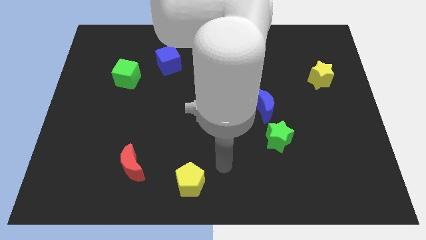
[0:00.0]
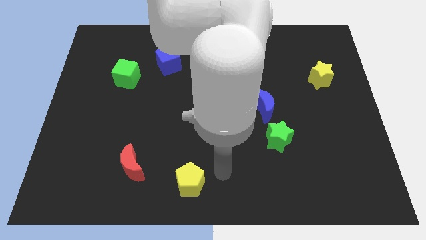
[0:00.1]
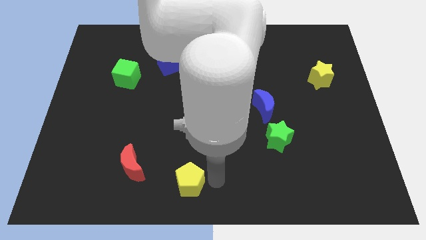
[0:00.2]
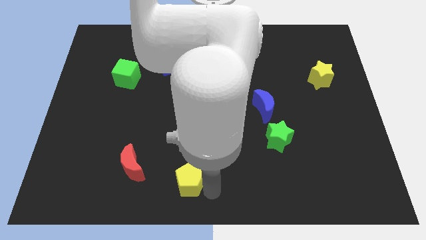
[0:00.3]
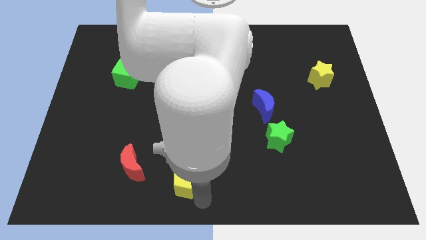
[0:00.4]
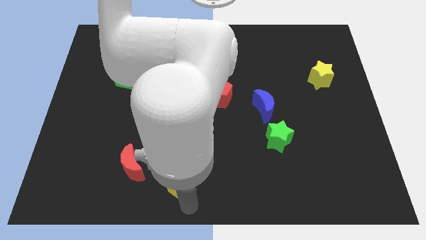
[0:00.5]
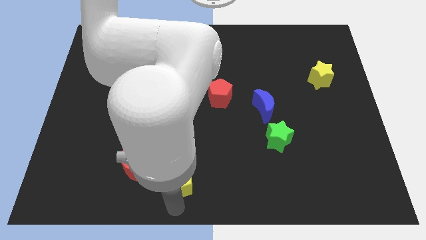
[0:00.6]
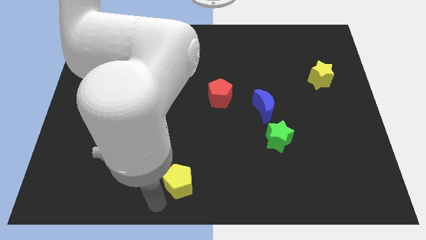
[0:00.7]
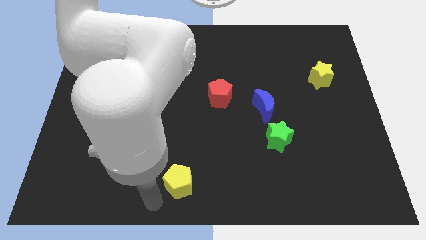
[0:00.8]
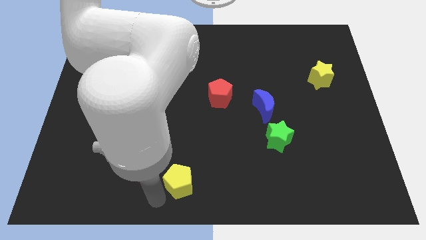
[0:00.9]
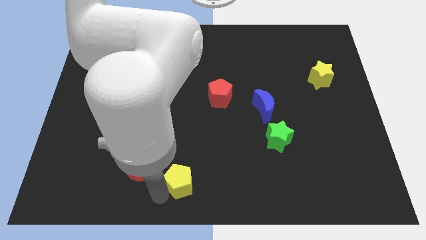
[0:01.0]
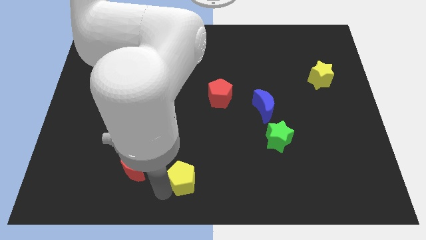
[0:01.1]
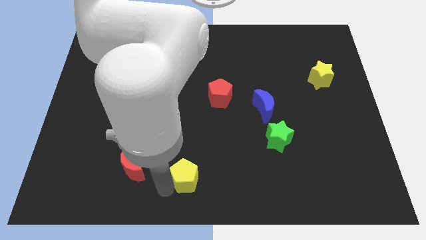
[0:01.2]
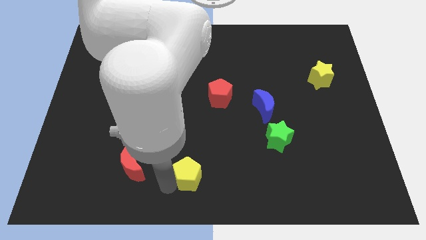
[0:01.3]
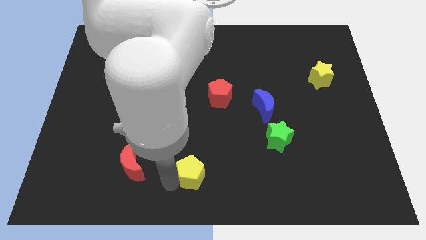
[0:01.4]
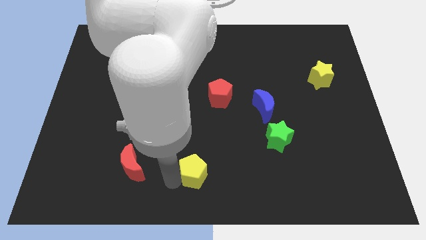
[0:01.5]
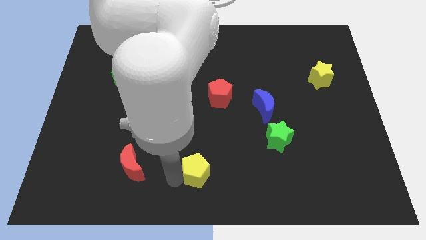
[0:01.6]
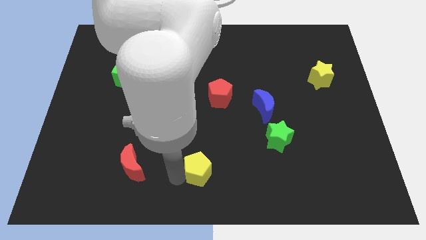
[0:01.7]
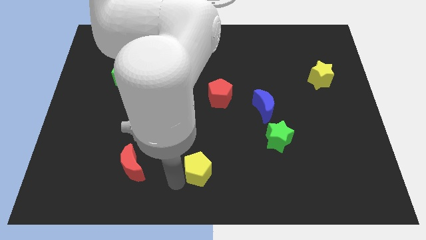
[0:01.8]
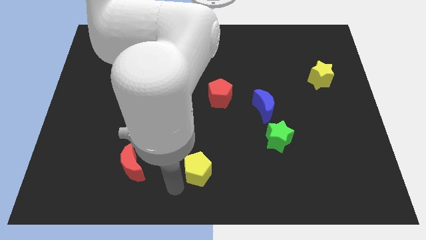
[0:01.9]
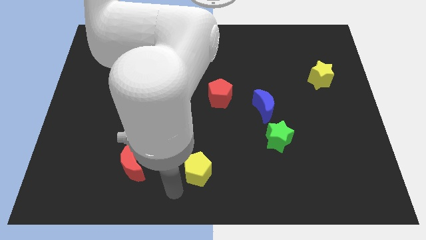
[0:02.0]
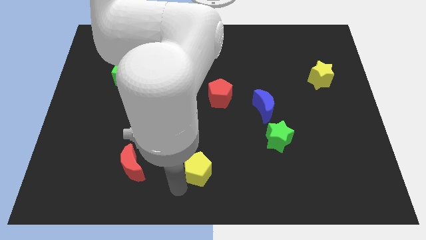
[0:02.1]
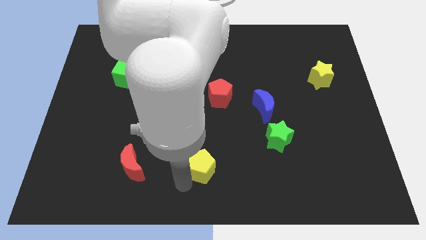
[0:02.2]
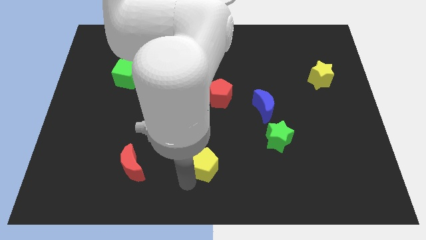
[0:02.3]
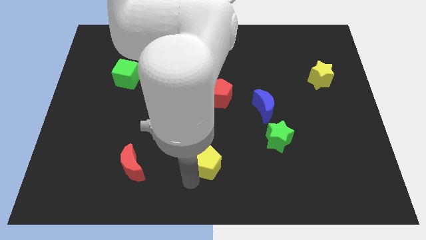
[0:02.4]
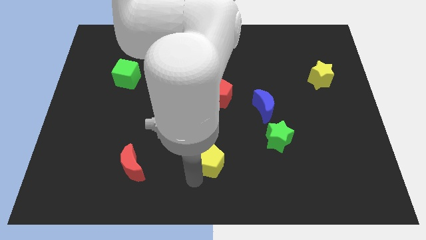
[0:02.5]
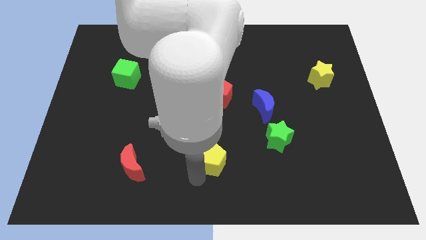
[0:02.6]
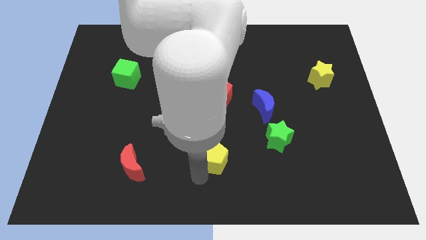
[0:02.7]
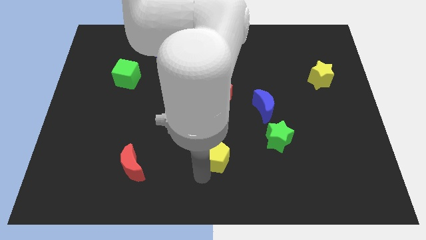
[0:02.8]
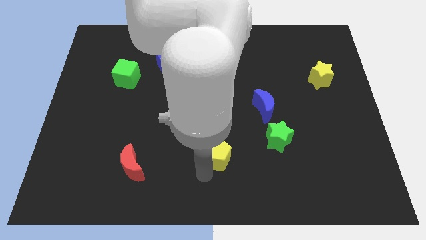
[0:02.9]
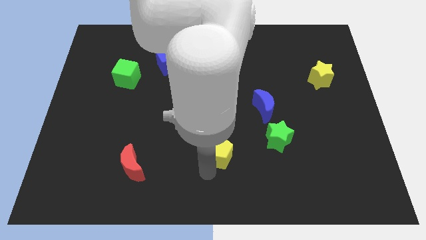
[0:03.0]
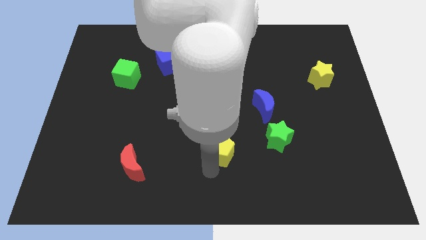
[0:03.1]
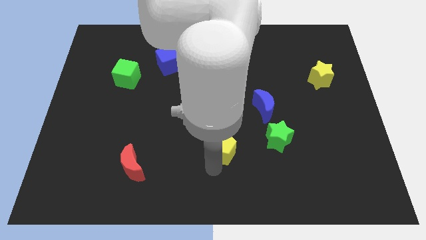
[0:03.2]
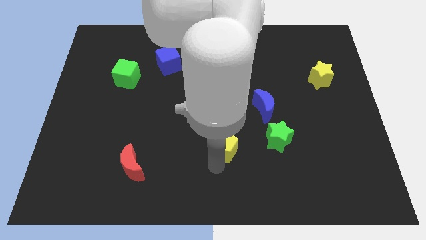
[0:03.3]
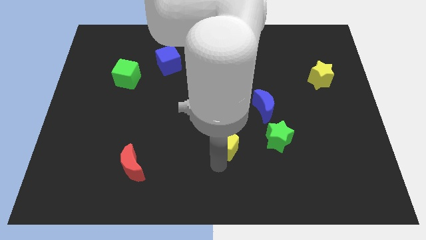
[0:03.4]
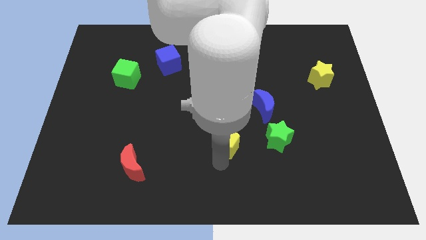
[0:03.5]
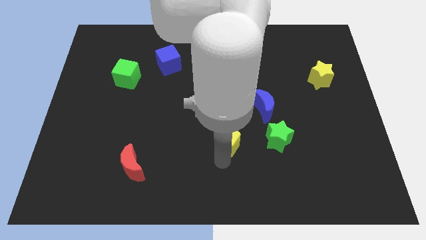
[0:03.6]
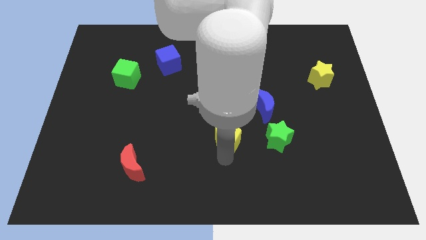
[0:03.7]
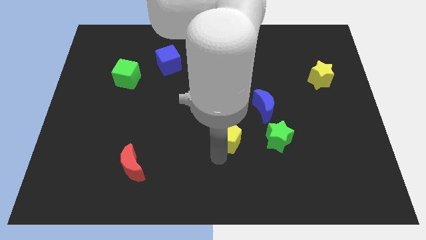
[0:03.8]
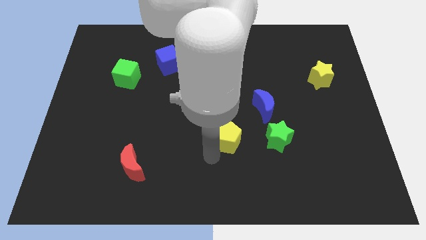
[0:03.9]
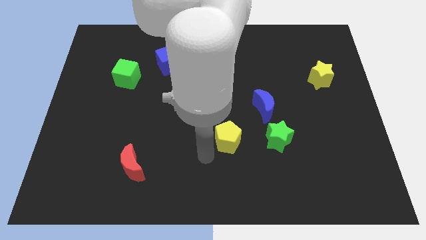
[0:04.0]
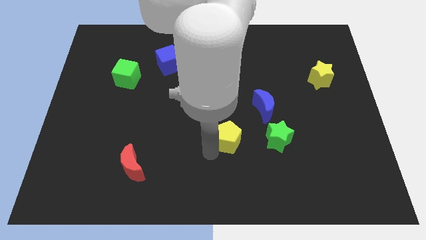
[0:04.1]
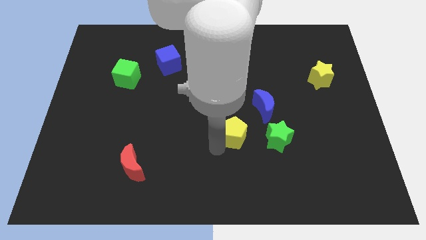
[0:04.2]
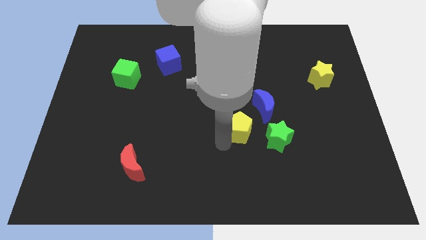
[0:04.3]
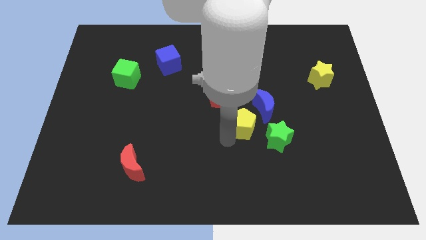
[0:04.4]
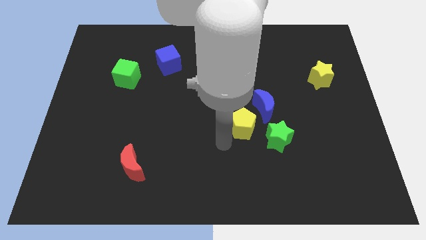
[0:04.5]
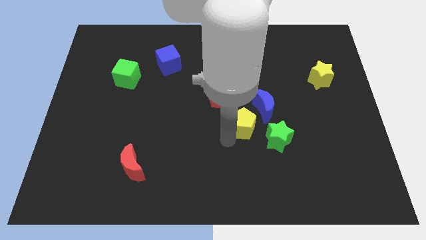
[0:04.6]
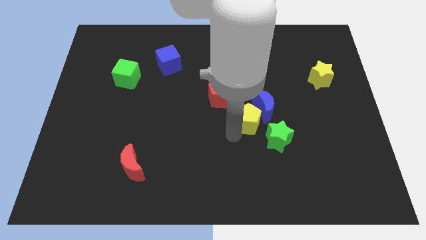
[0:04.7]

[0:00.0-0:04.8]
slide the yellow pentagon to the blue moon

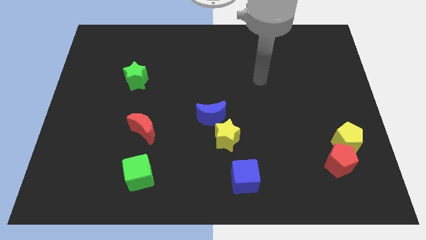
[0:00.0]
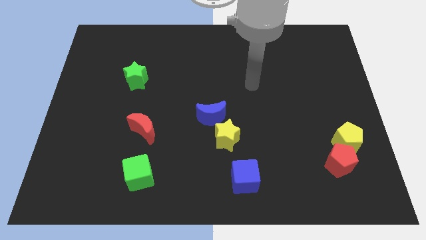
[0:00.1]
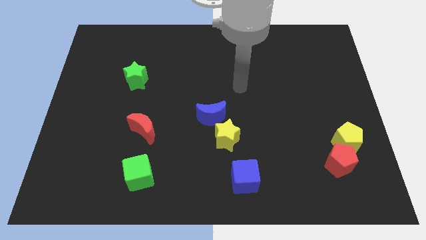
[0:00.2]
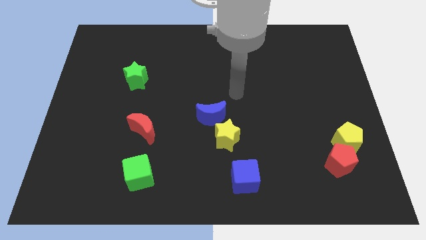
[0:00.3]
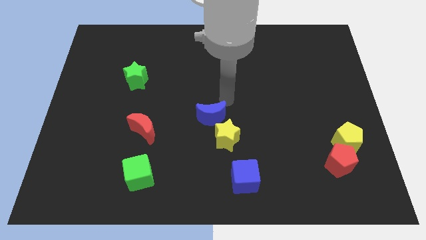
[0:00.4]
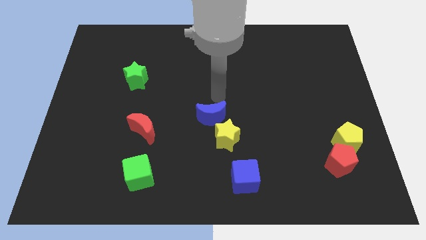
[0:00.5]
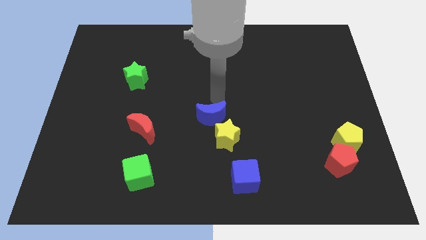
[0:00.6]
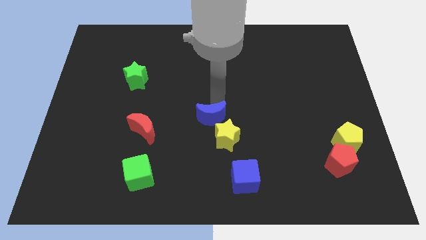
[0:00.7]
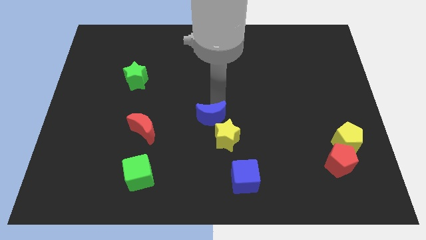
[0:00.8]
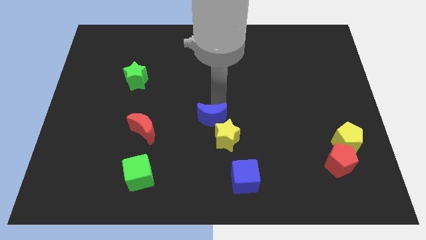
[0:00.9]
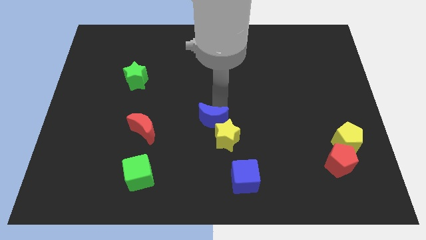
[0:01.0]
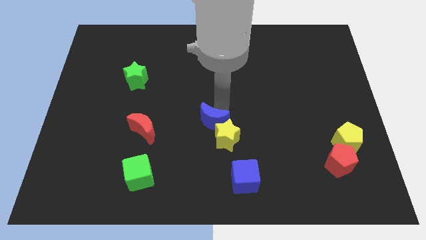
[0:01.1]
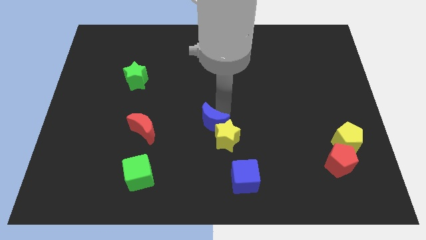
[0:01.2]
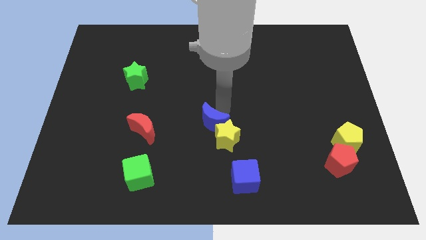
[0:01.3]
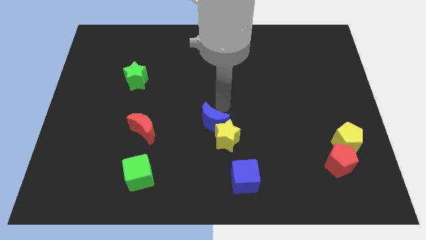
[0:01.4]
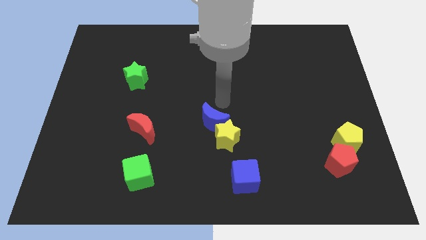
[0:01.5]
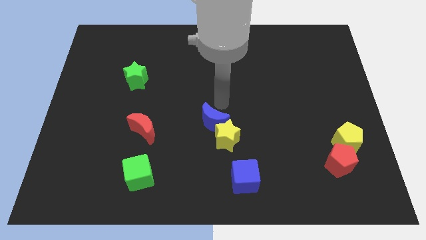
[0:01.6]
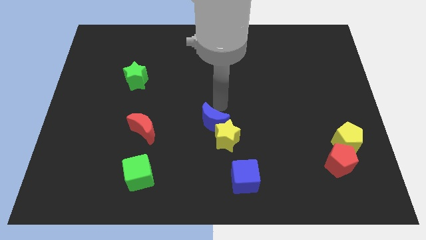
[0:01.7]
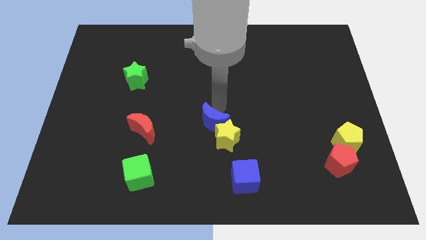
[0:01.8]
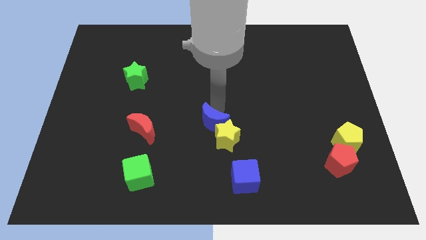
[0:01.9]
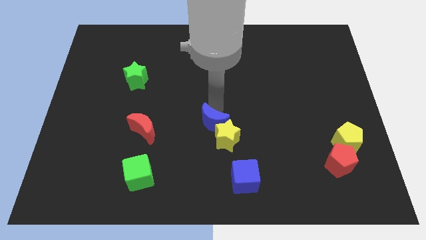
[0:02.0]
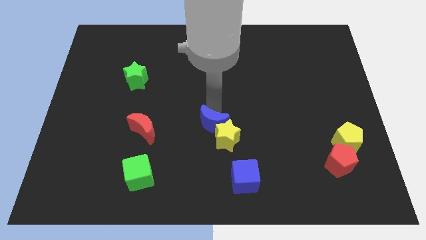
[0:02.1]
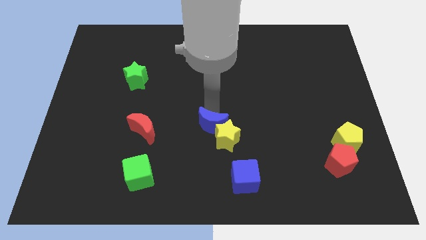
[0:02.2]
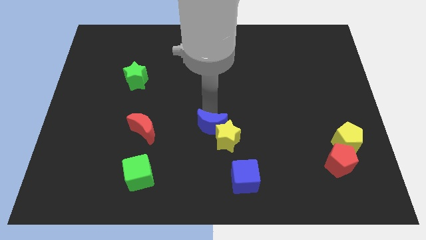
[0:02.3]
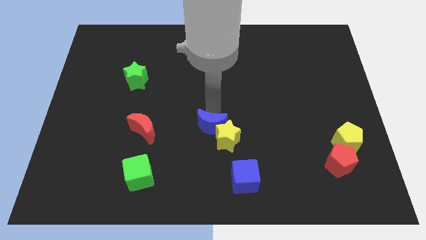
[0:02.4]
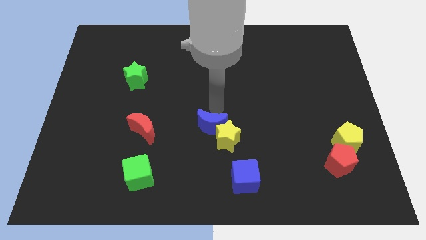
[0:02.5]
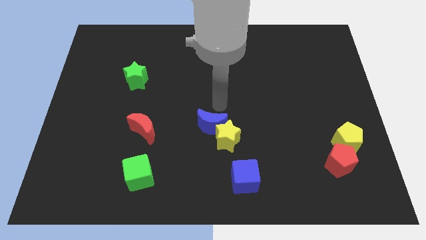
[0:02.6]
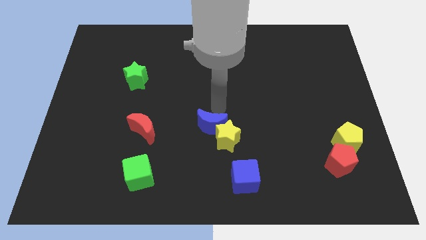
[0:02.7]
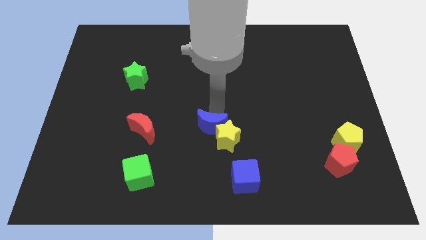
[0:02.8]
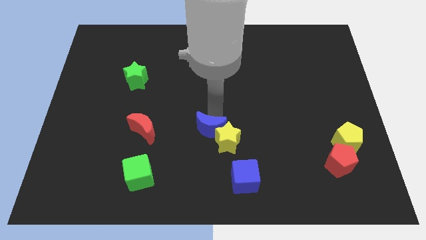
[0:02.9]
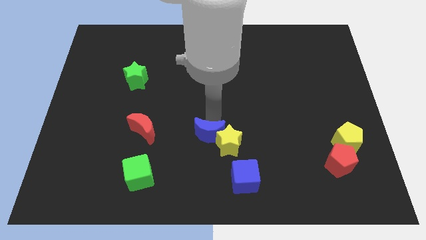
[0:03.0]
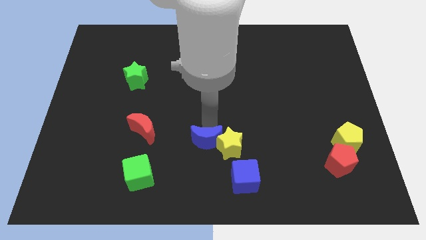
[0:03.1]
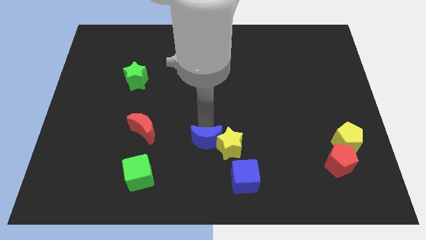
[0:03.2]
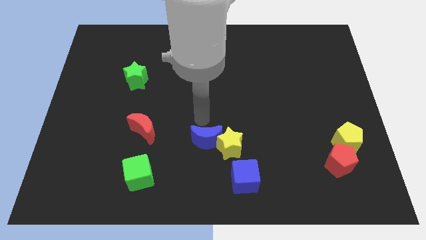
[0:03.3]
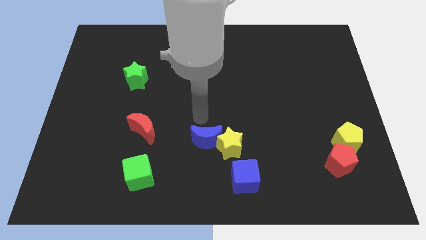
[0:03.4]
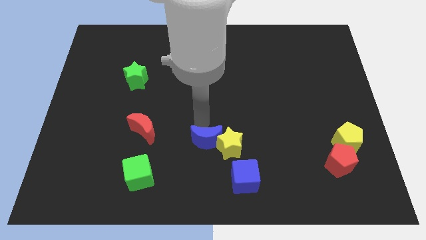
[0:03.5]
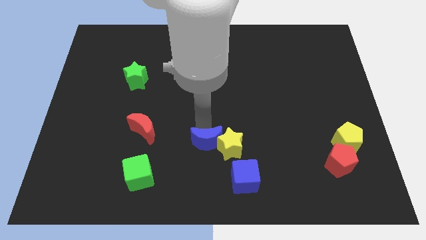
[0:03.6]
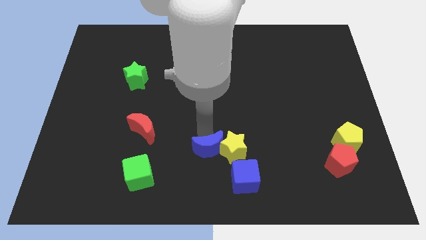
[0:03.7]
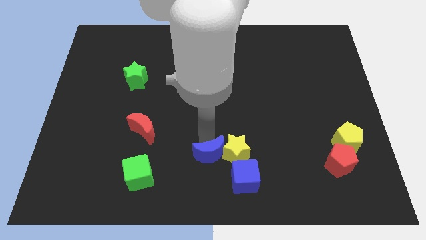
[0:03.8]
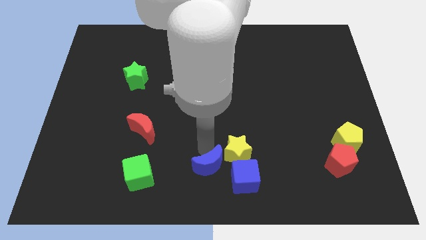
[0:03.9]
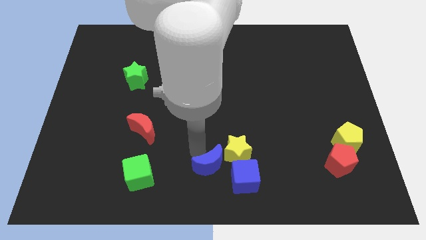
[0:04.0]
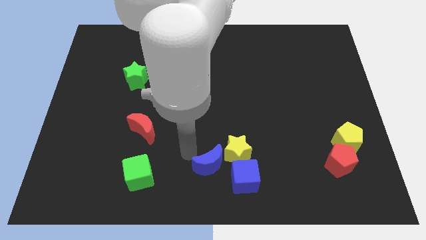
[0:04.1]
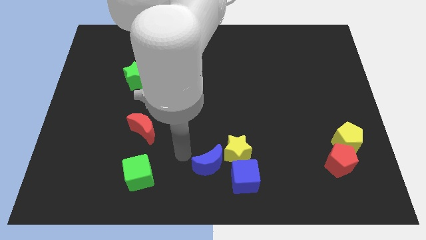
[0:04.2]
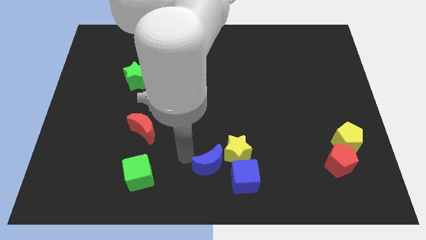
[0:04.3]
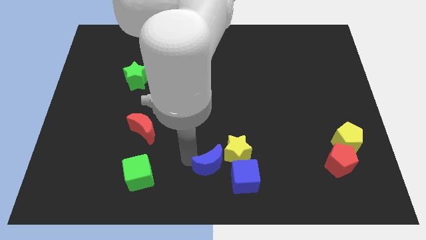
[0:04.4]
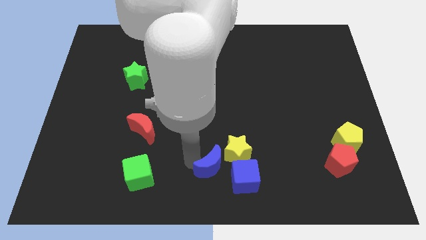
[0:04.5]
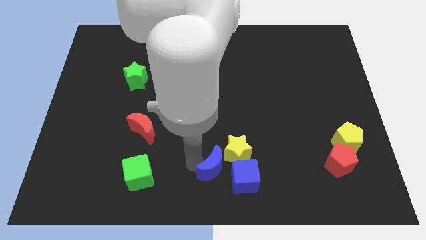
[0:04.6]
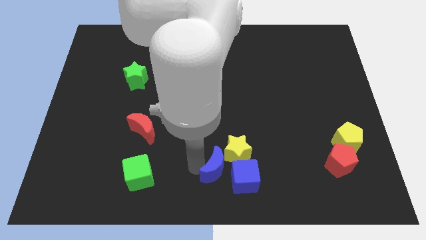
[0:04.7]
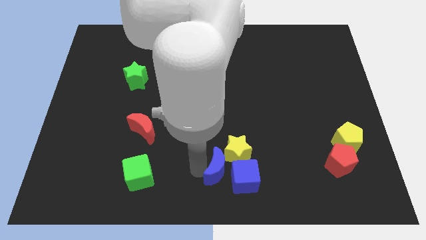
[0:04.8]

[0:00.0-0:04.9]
slide the blue moon to the blue cube
